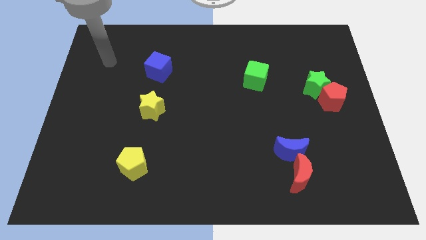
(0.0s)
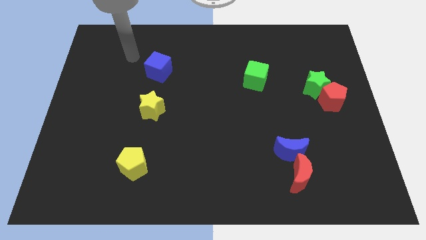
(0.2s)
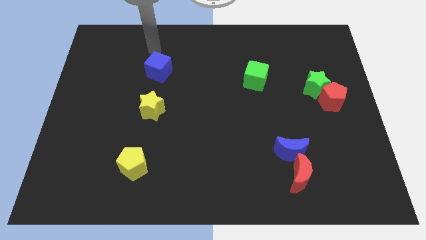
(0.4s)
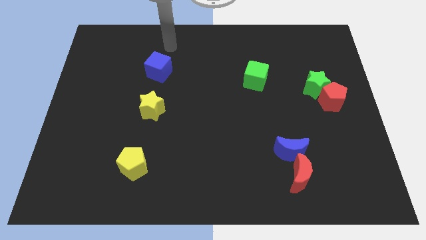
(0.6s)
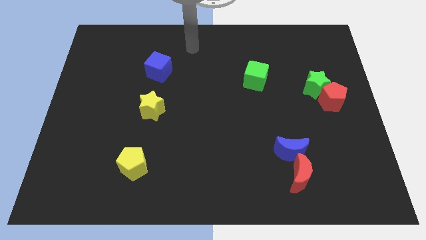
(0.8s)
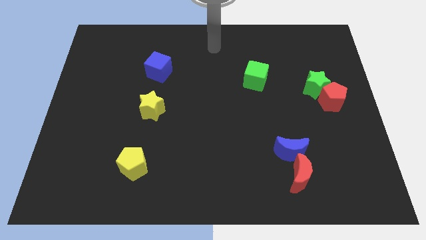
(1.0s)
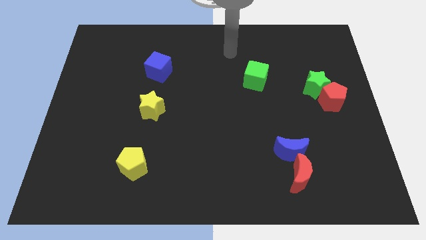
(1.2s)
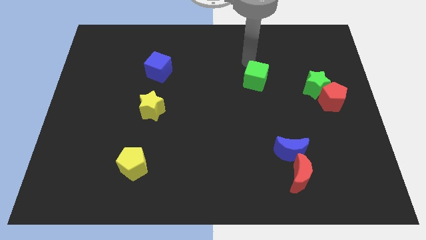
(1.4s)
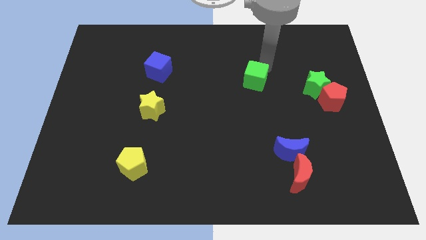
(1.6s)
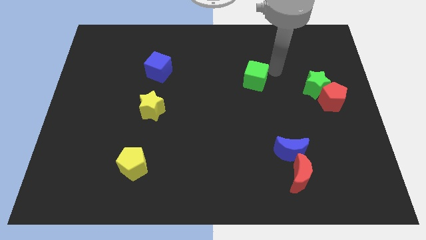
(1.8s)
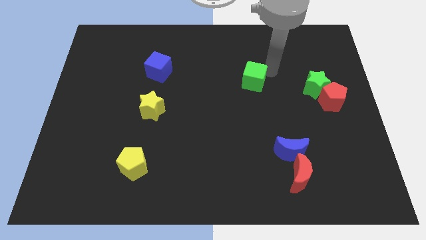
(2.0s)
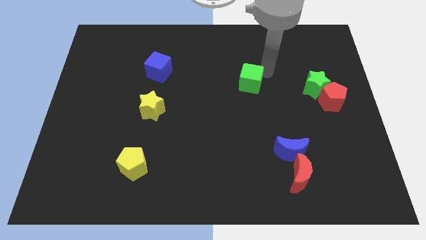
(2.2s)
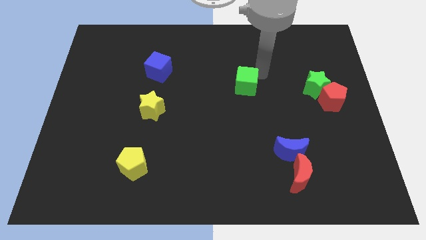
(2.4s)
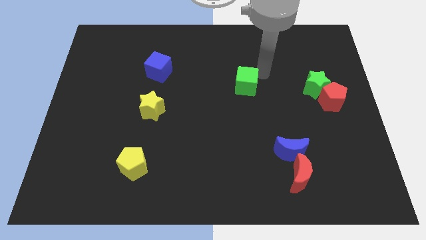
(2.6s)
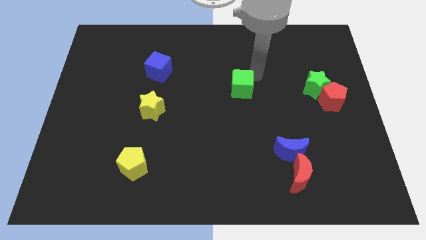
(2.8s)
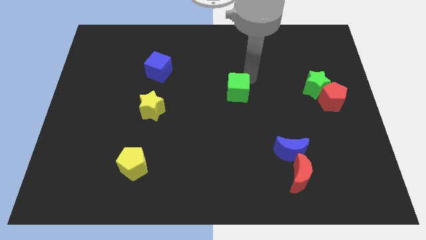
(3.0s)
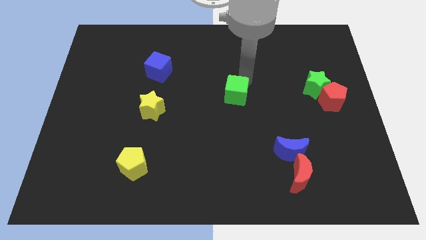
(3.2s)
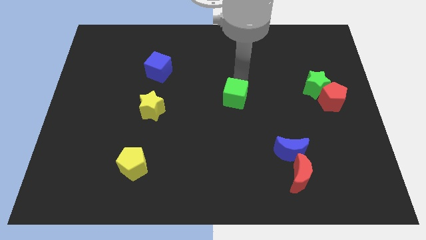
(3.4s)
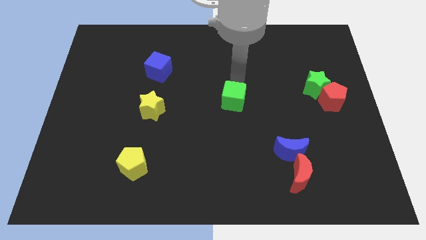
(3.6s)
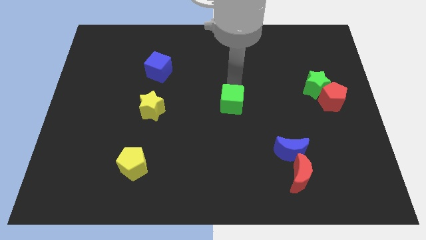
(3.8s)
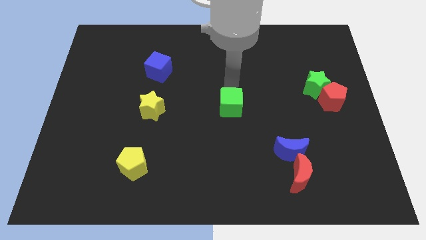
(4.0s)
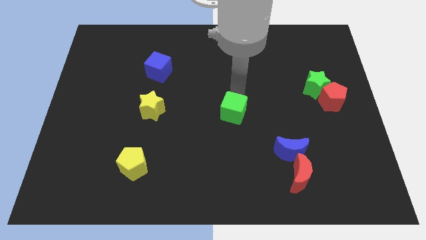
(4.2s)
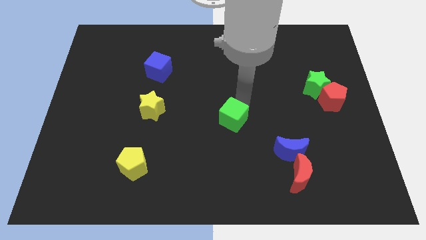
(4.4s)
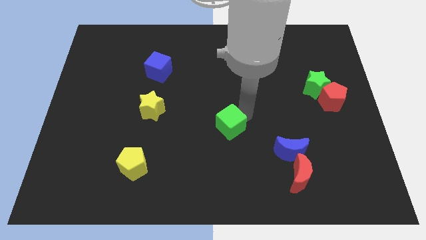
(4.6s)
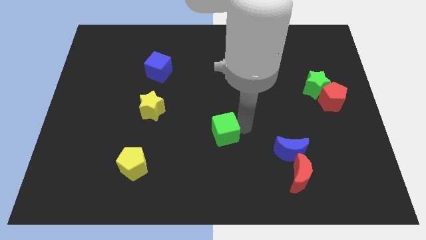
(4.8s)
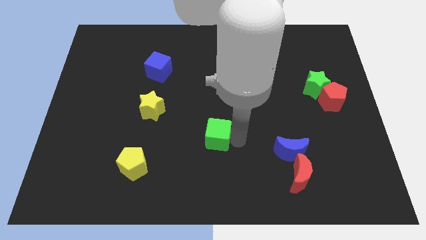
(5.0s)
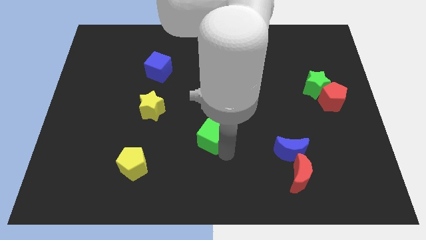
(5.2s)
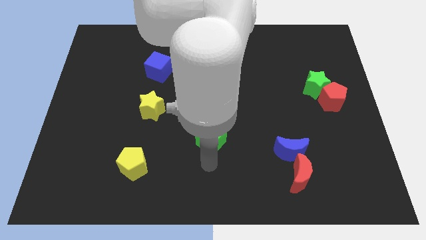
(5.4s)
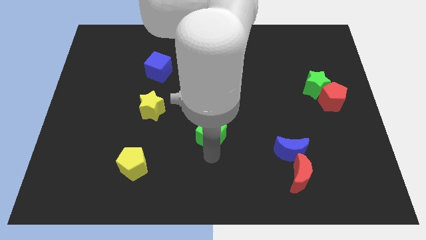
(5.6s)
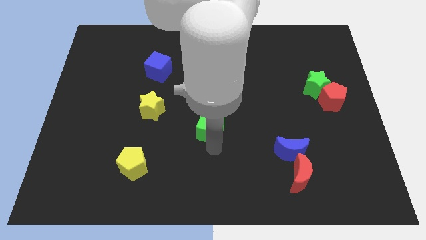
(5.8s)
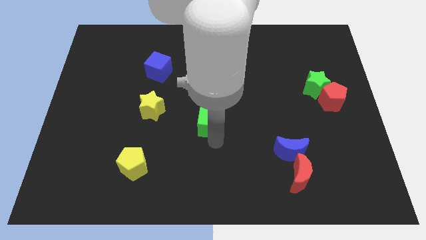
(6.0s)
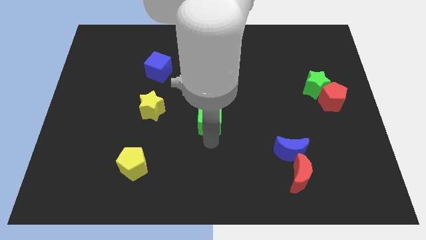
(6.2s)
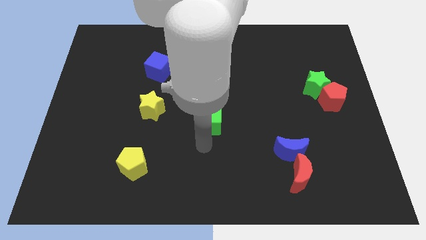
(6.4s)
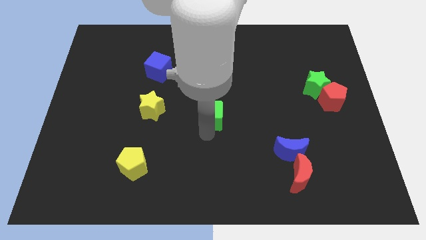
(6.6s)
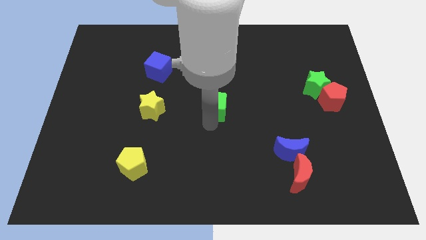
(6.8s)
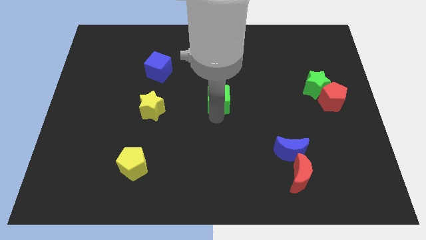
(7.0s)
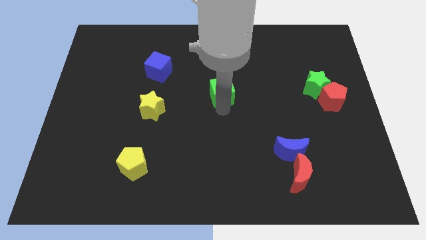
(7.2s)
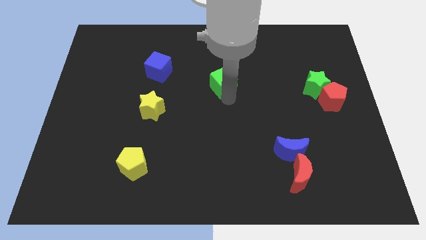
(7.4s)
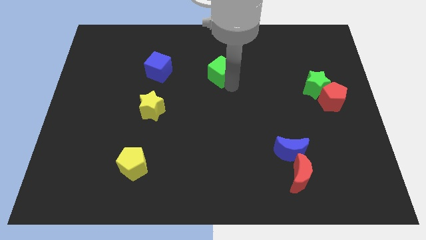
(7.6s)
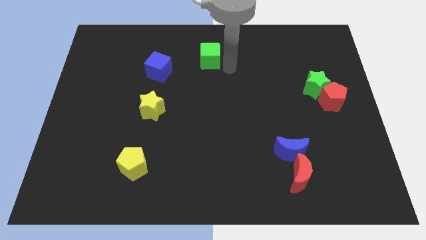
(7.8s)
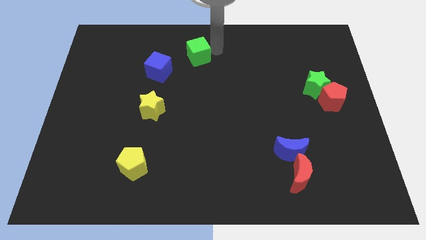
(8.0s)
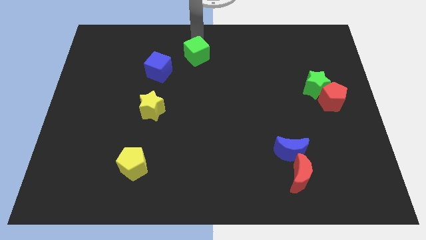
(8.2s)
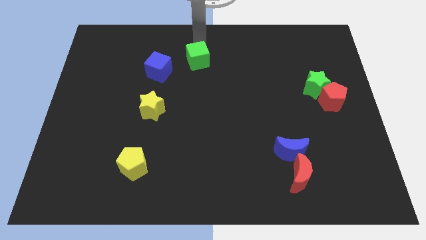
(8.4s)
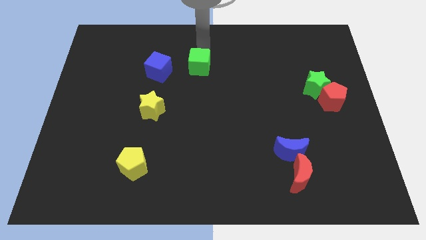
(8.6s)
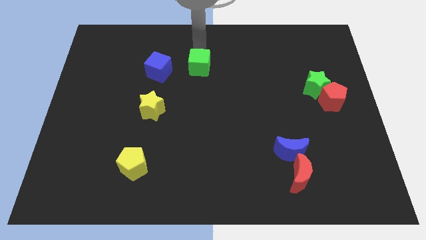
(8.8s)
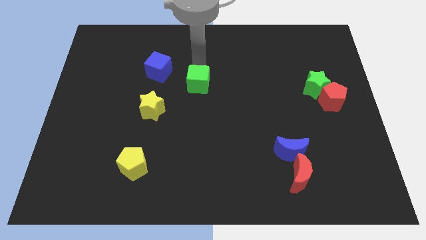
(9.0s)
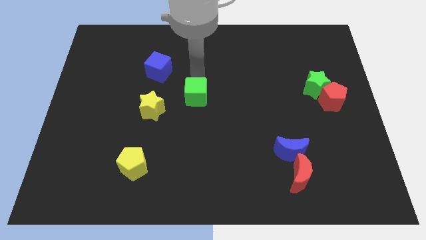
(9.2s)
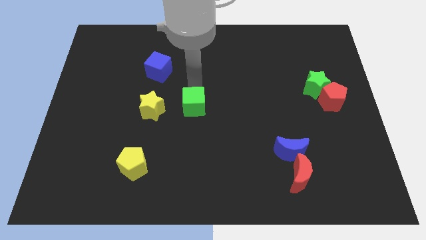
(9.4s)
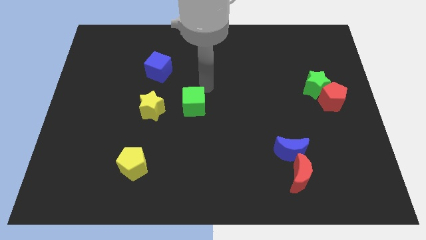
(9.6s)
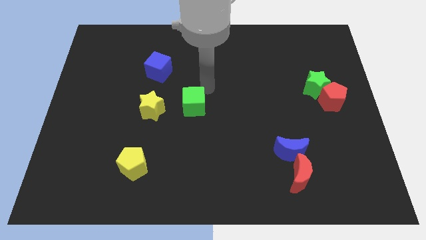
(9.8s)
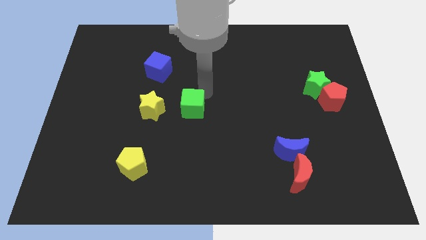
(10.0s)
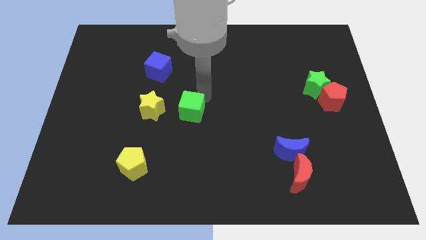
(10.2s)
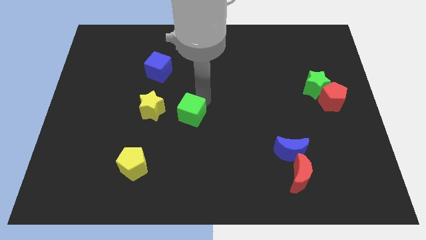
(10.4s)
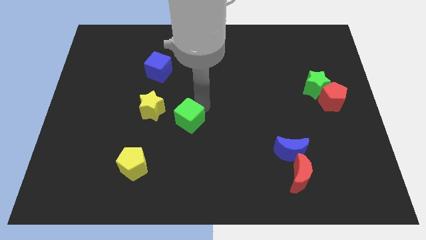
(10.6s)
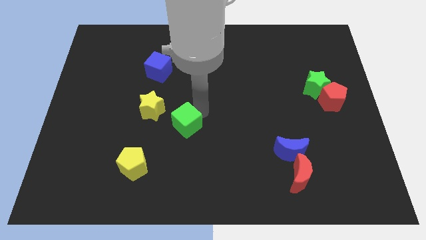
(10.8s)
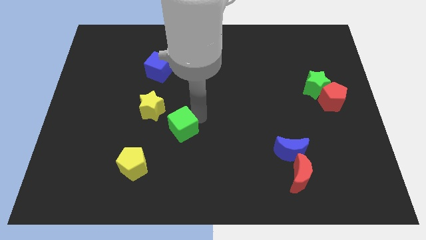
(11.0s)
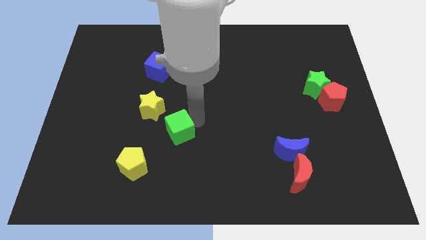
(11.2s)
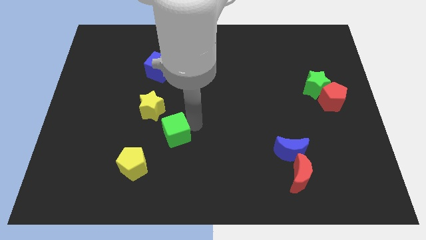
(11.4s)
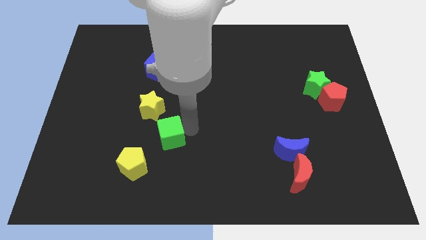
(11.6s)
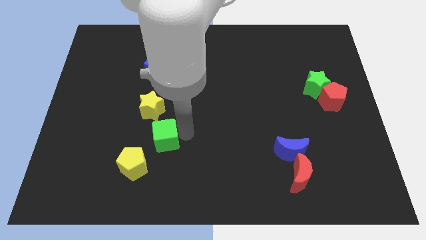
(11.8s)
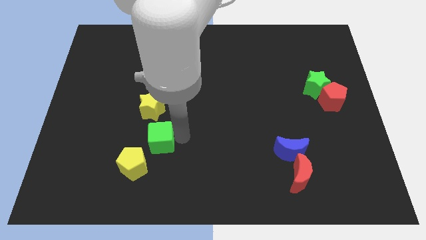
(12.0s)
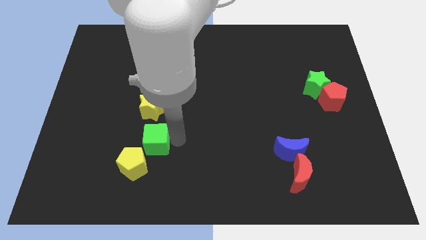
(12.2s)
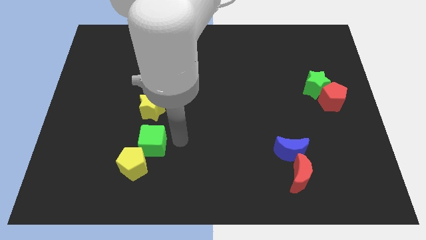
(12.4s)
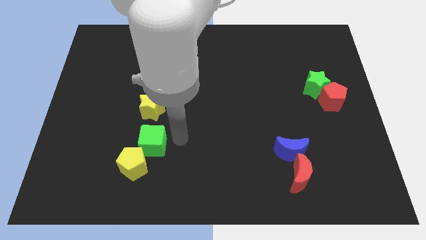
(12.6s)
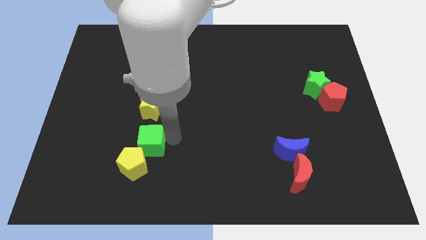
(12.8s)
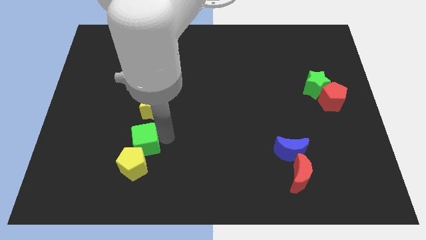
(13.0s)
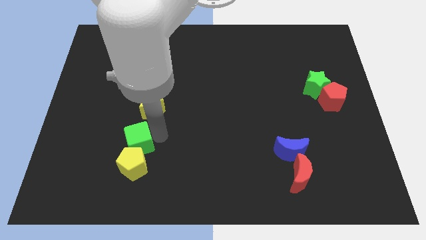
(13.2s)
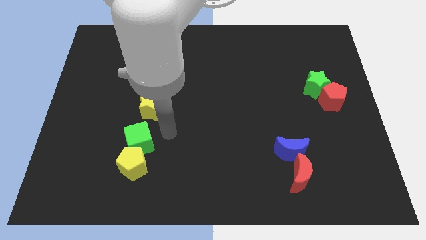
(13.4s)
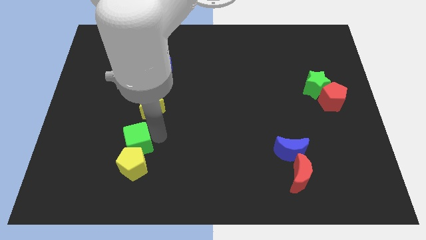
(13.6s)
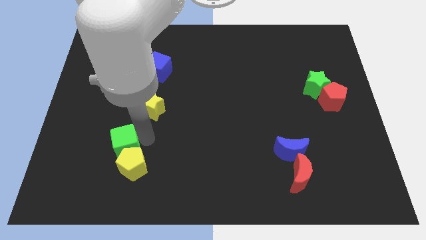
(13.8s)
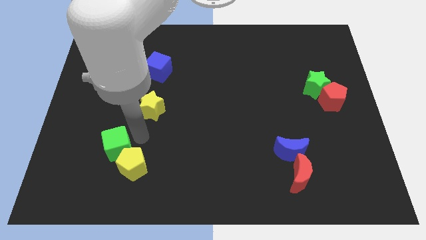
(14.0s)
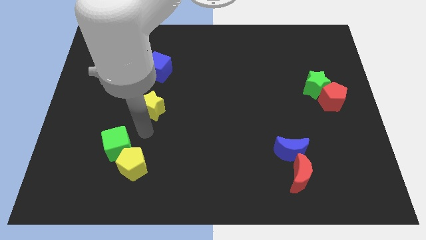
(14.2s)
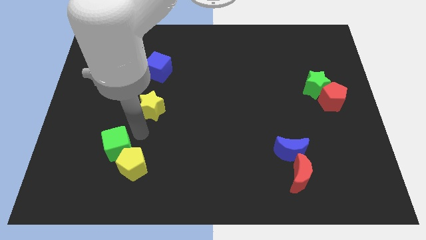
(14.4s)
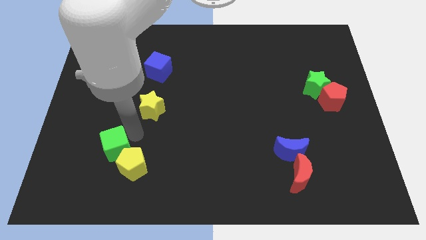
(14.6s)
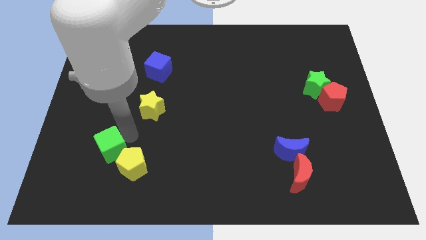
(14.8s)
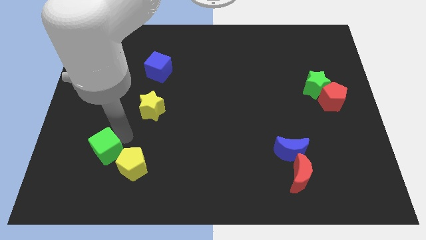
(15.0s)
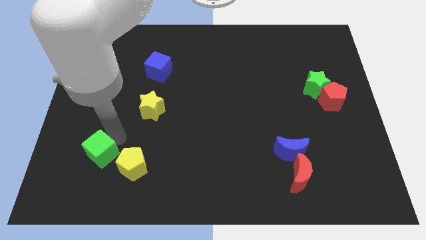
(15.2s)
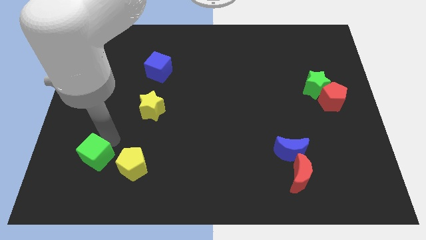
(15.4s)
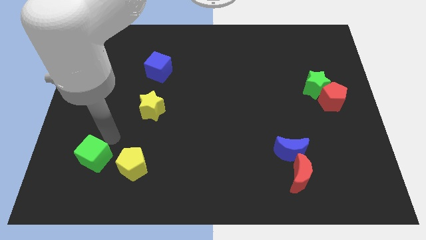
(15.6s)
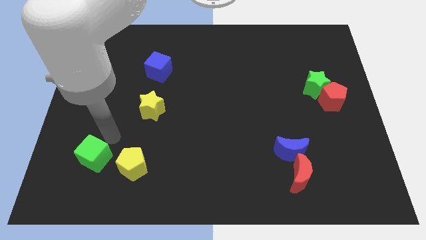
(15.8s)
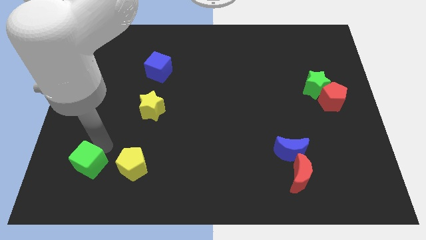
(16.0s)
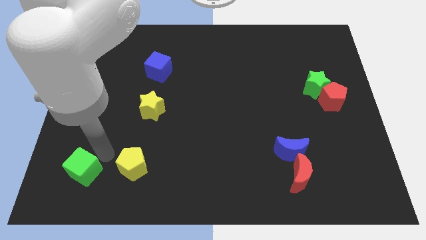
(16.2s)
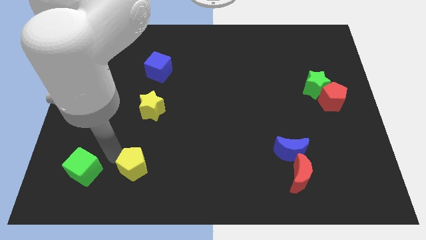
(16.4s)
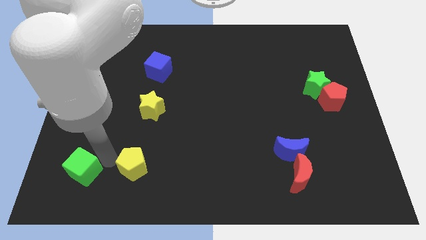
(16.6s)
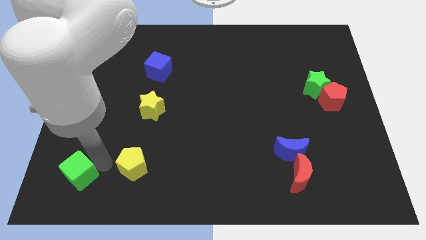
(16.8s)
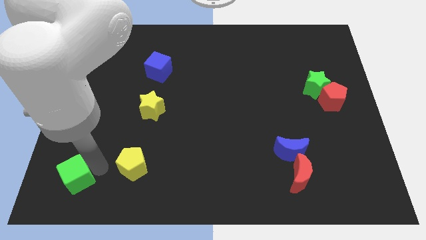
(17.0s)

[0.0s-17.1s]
put the green cube to the bottom left corner
